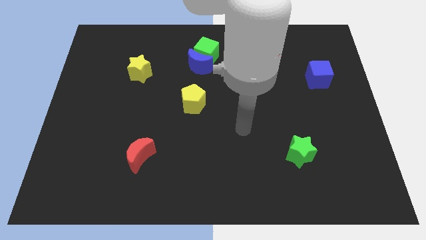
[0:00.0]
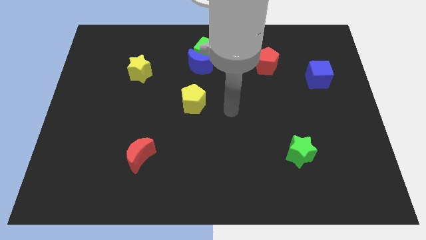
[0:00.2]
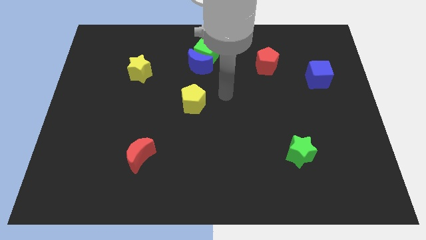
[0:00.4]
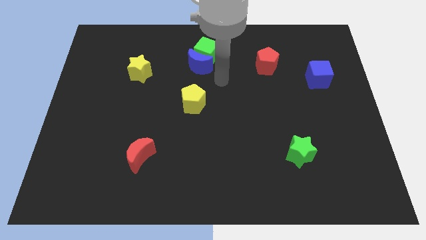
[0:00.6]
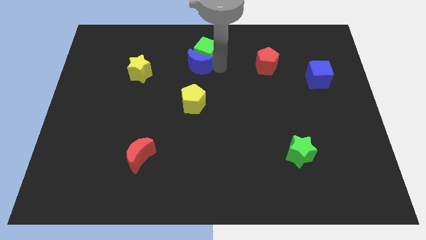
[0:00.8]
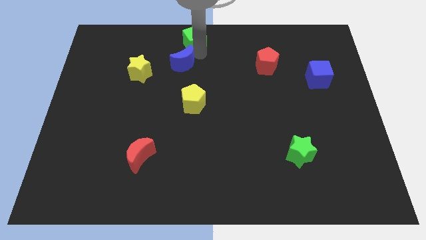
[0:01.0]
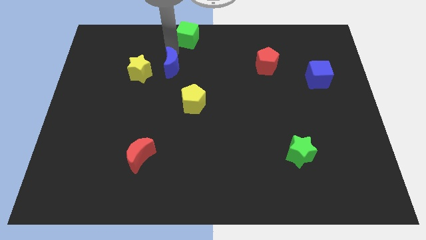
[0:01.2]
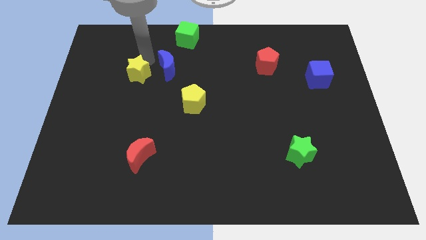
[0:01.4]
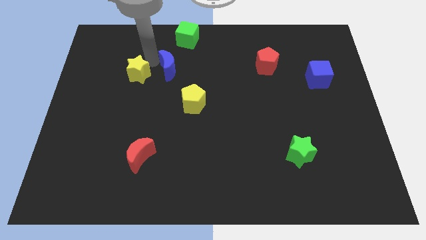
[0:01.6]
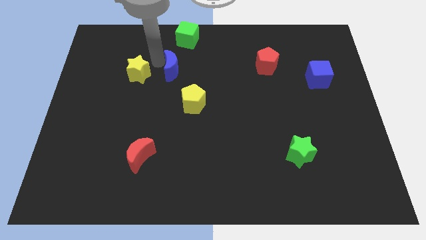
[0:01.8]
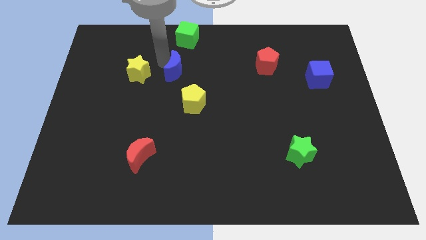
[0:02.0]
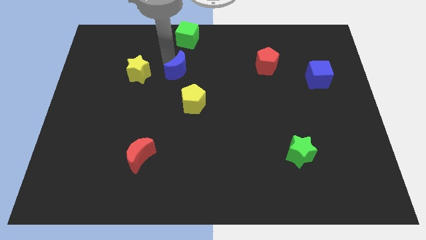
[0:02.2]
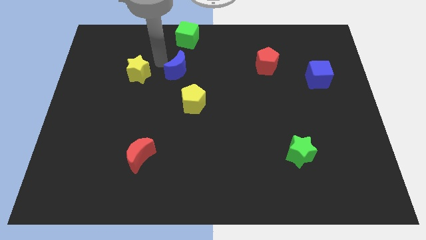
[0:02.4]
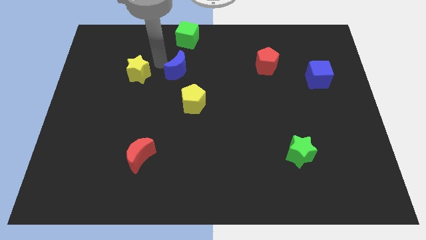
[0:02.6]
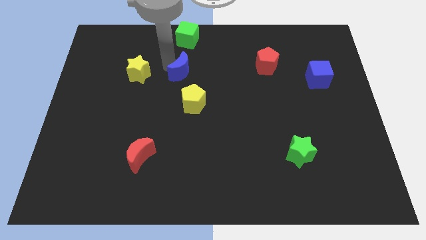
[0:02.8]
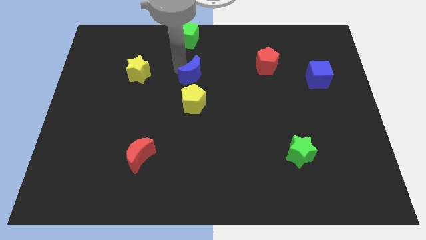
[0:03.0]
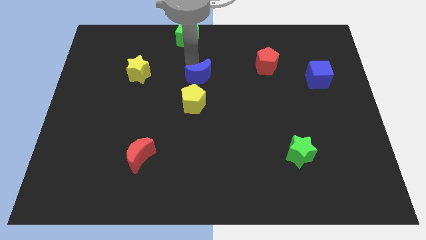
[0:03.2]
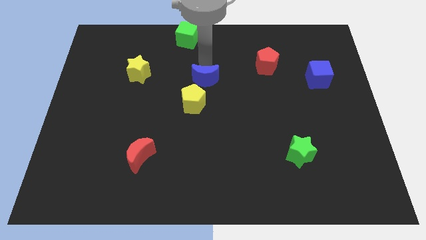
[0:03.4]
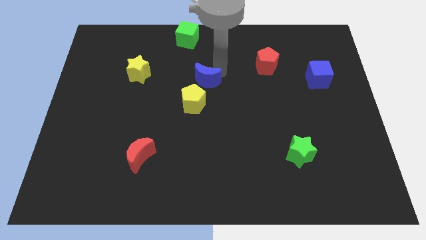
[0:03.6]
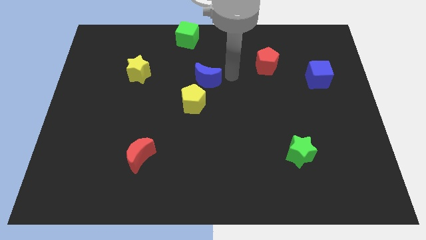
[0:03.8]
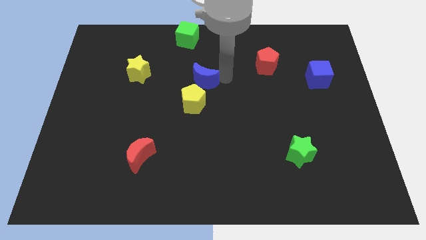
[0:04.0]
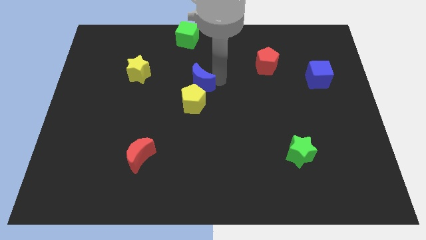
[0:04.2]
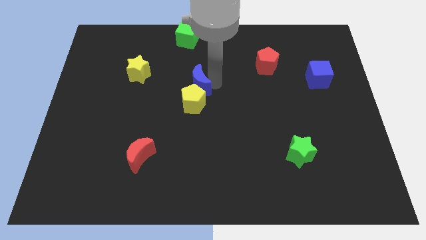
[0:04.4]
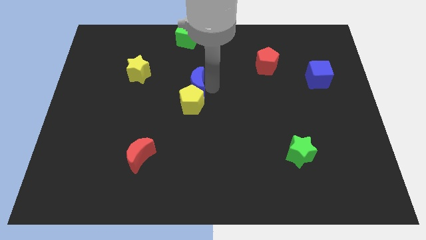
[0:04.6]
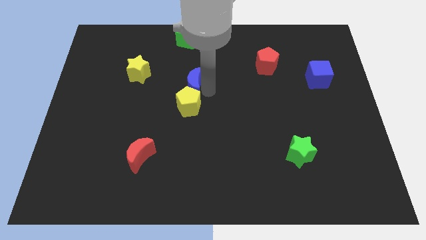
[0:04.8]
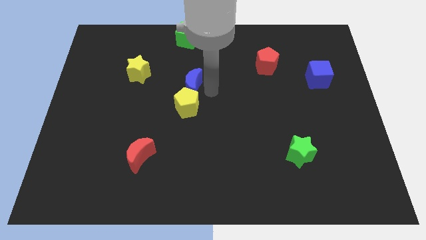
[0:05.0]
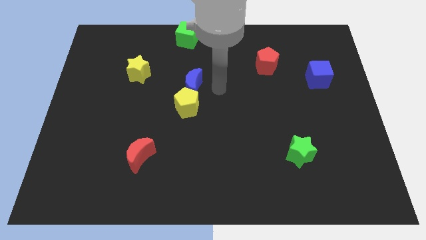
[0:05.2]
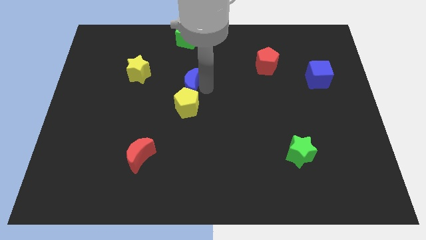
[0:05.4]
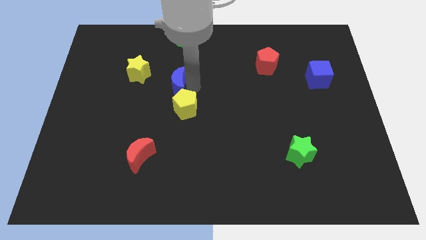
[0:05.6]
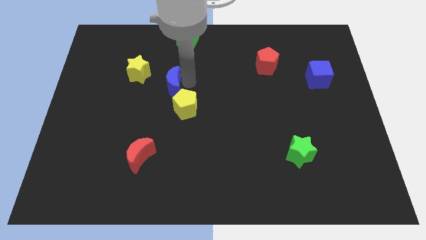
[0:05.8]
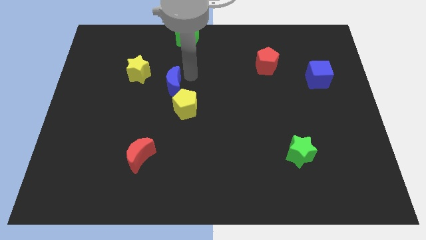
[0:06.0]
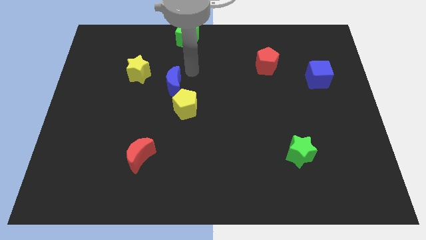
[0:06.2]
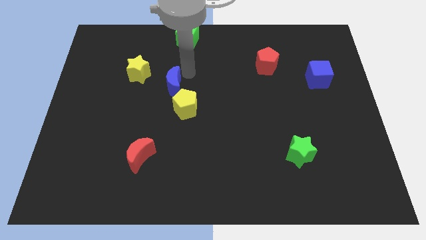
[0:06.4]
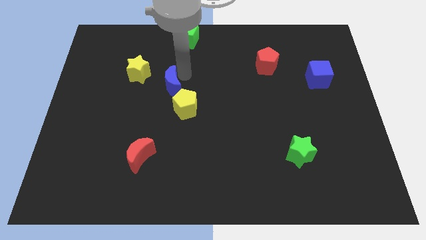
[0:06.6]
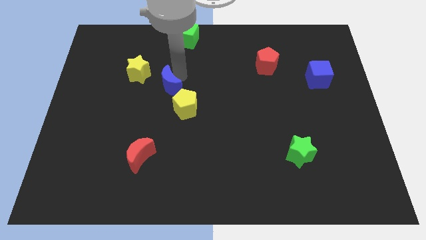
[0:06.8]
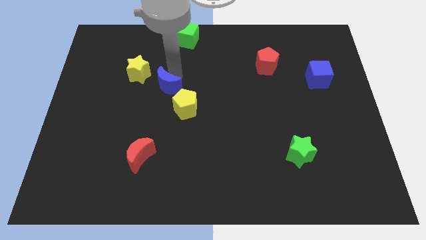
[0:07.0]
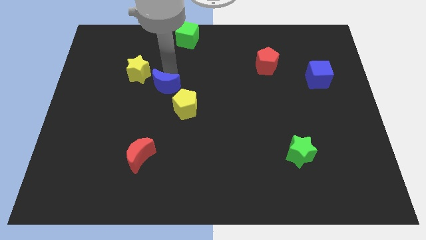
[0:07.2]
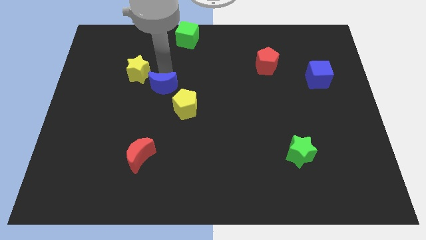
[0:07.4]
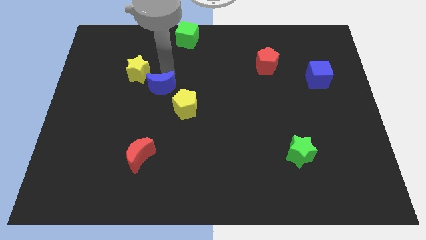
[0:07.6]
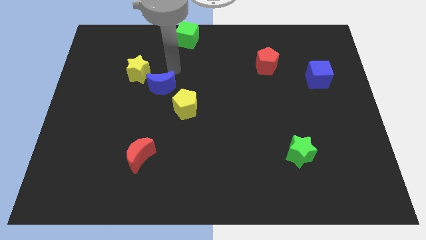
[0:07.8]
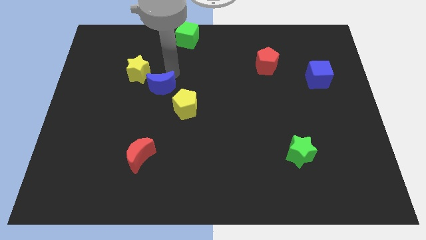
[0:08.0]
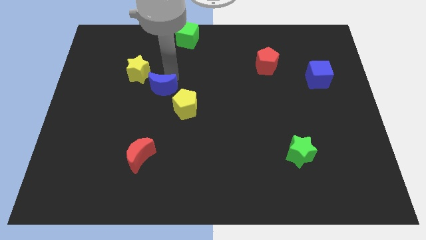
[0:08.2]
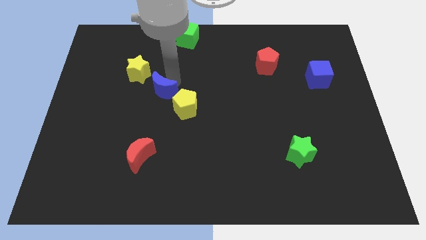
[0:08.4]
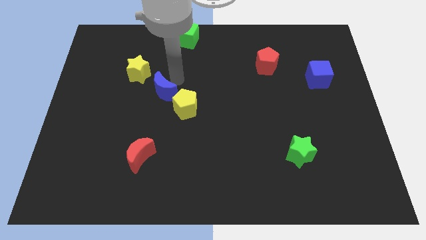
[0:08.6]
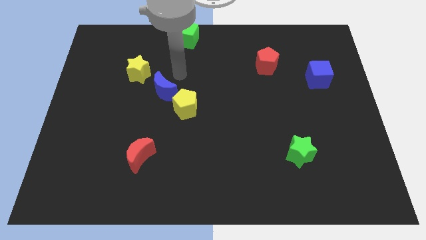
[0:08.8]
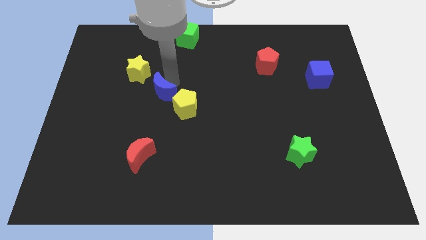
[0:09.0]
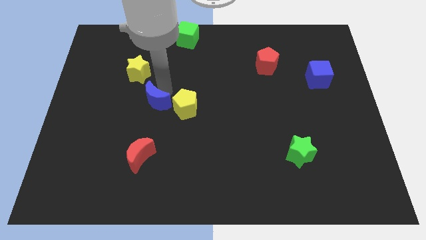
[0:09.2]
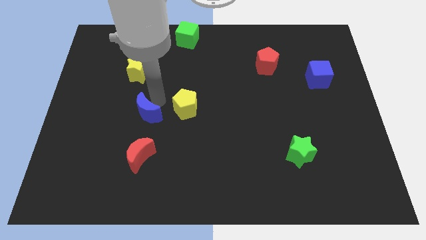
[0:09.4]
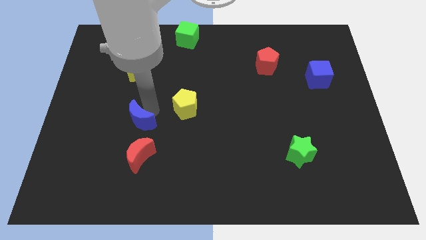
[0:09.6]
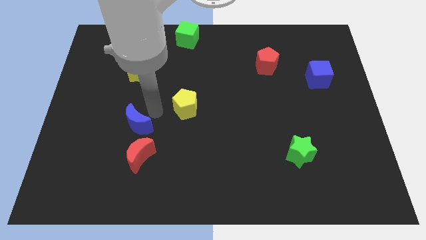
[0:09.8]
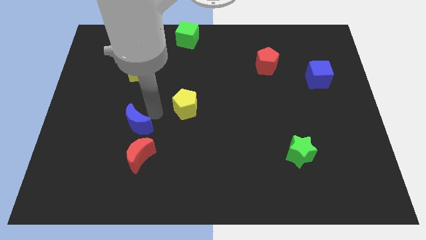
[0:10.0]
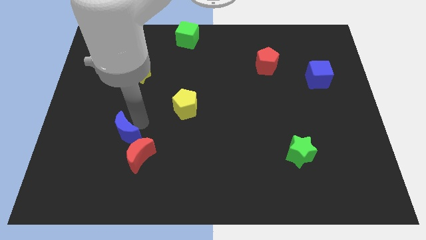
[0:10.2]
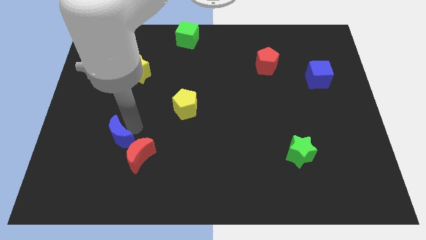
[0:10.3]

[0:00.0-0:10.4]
move the blue moon to the left side of the red moon

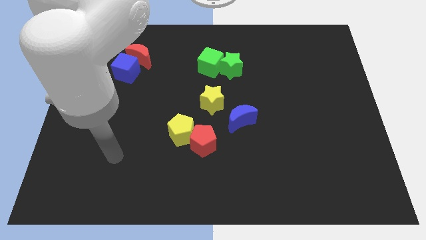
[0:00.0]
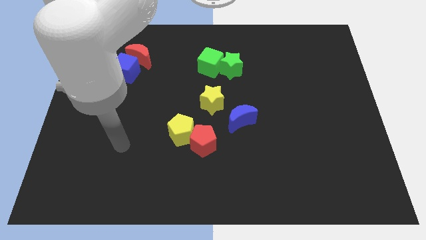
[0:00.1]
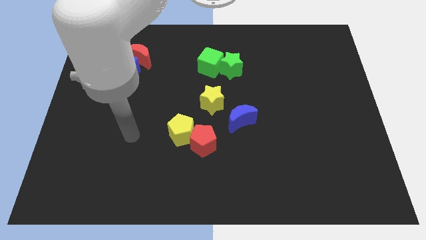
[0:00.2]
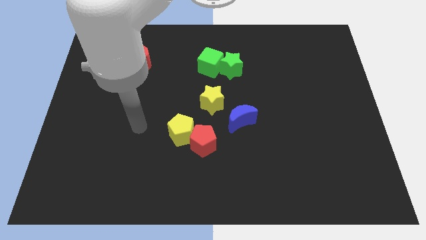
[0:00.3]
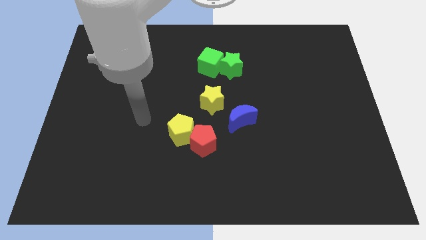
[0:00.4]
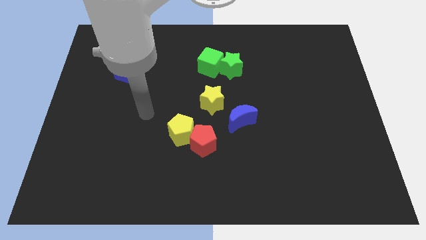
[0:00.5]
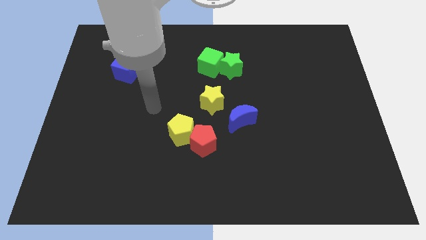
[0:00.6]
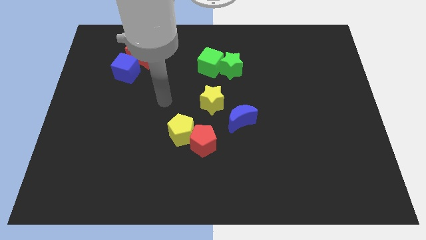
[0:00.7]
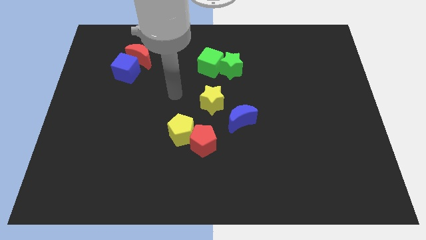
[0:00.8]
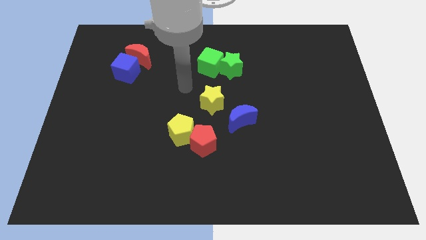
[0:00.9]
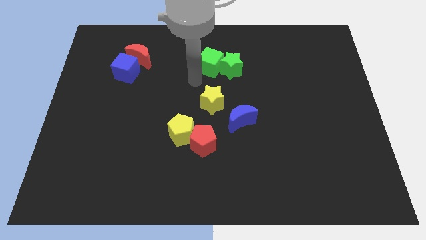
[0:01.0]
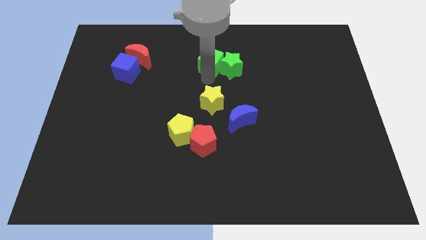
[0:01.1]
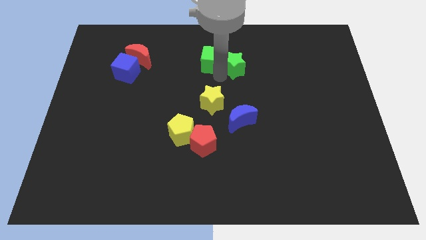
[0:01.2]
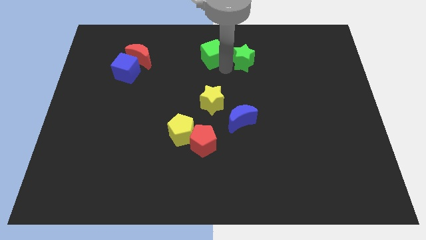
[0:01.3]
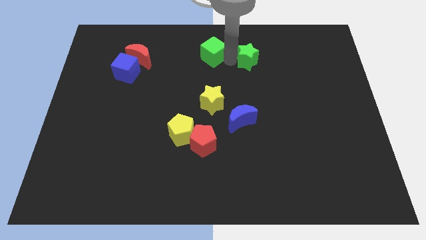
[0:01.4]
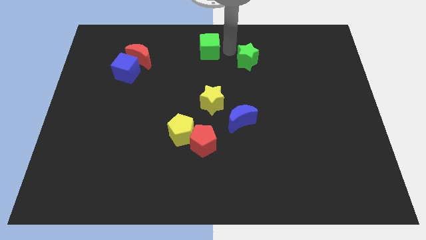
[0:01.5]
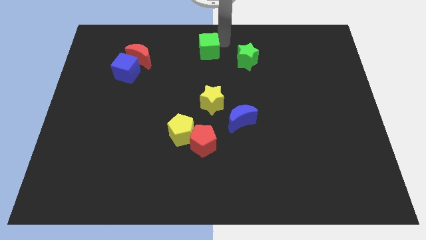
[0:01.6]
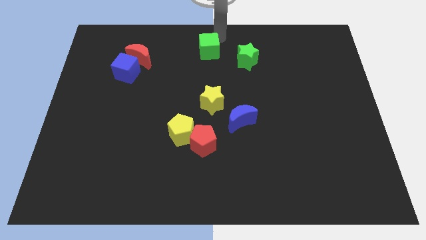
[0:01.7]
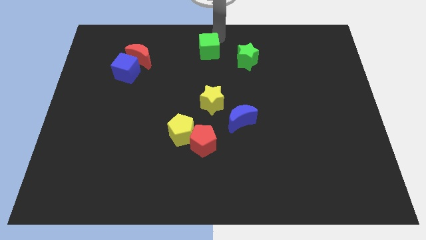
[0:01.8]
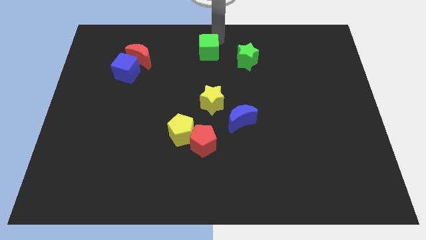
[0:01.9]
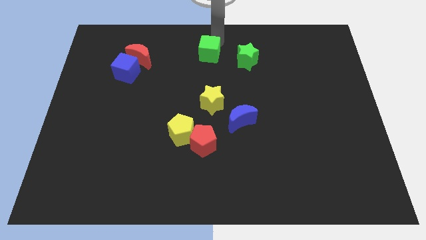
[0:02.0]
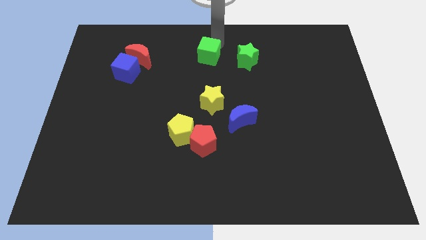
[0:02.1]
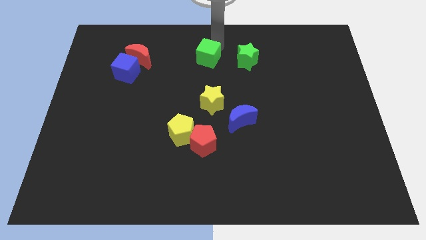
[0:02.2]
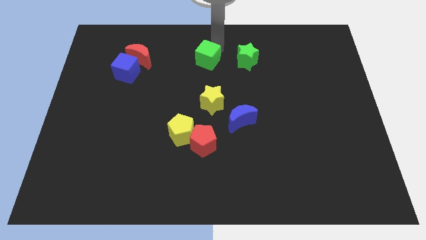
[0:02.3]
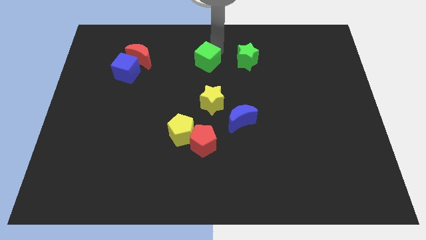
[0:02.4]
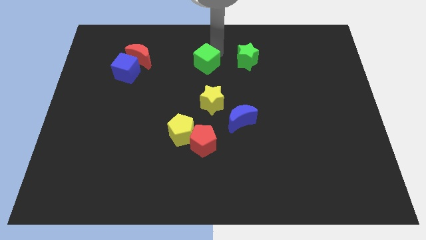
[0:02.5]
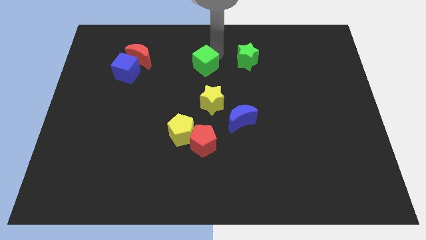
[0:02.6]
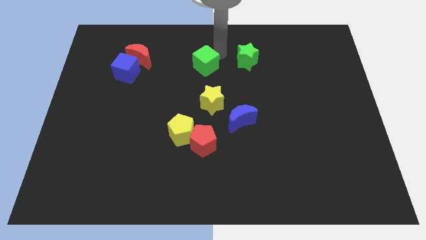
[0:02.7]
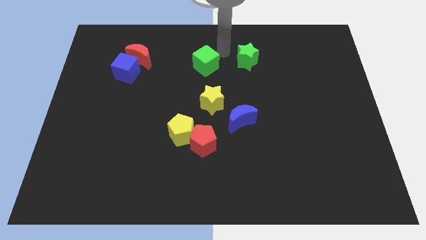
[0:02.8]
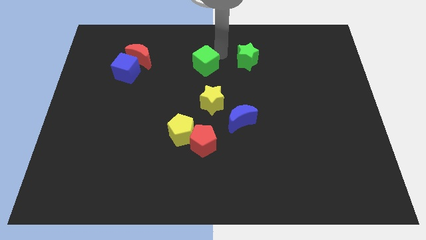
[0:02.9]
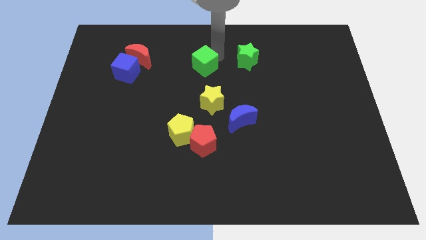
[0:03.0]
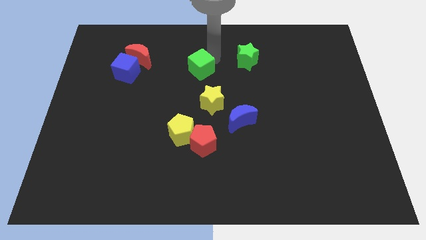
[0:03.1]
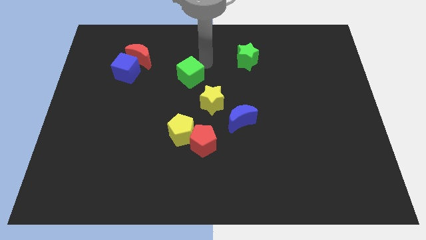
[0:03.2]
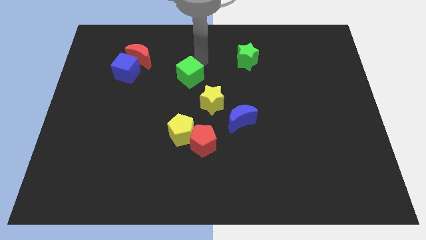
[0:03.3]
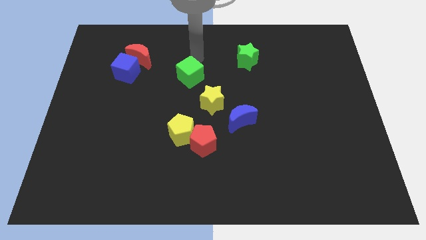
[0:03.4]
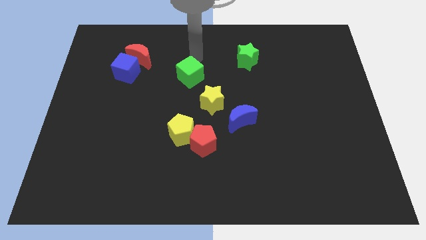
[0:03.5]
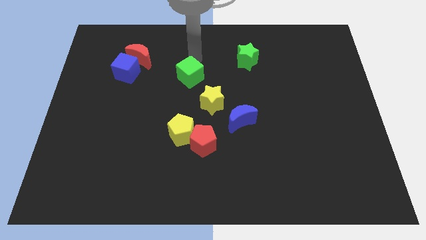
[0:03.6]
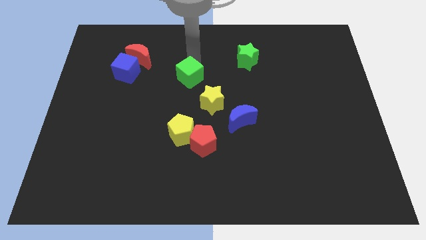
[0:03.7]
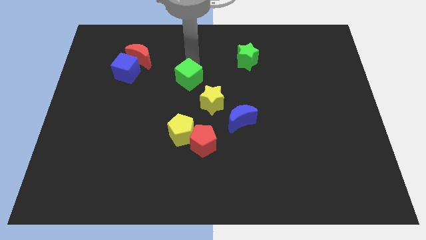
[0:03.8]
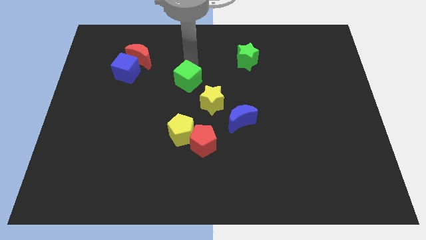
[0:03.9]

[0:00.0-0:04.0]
push the green cube to the top side of the yellow pentagon
